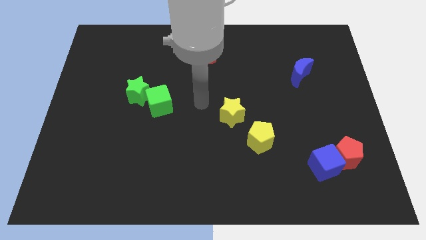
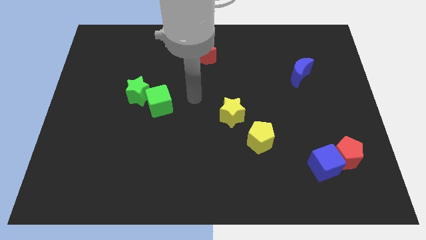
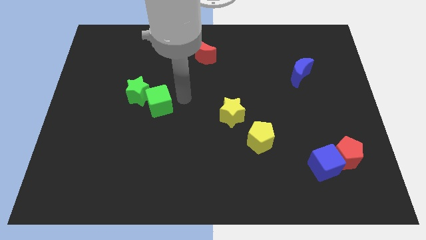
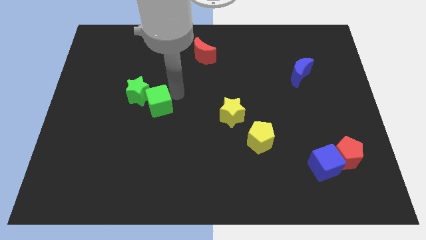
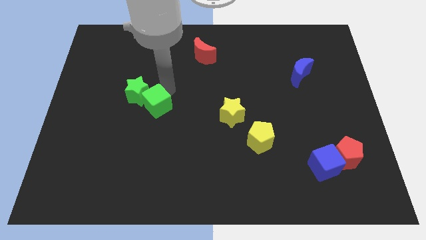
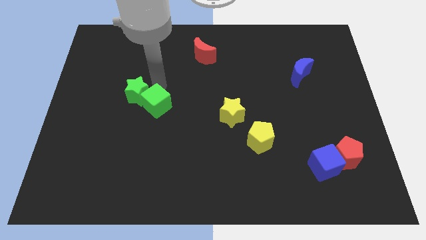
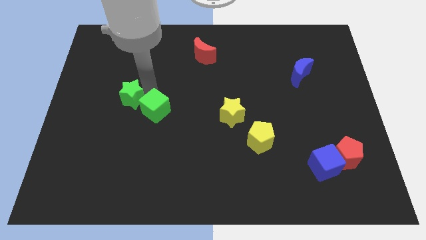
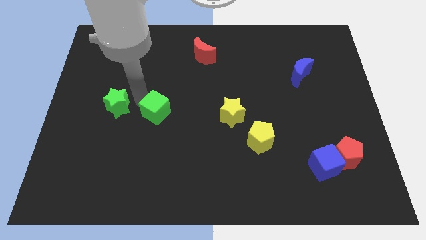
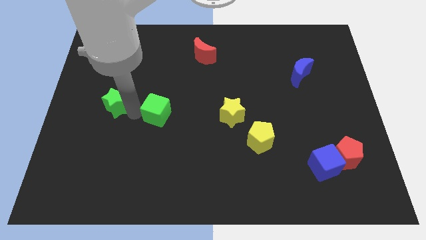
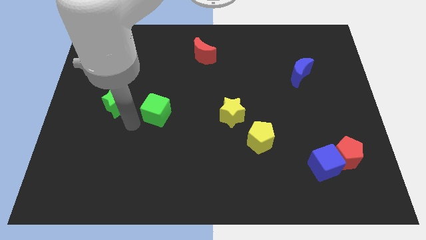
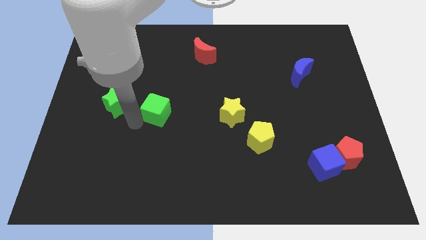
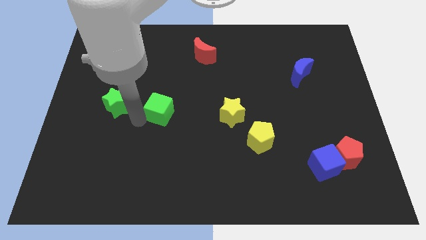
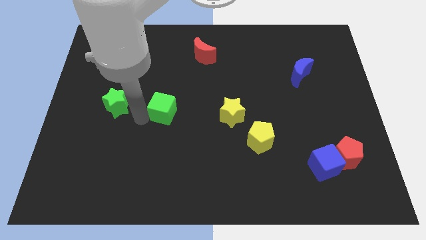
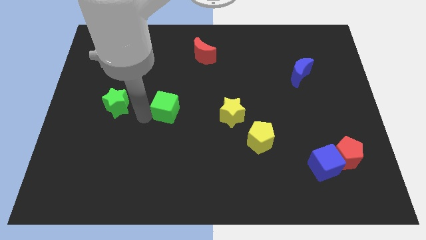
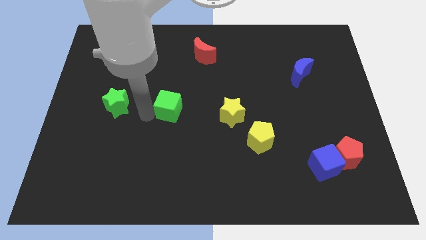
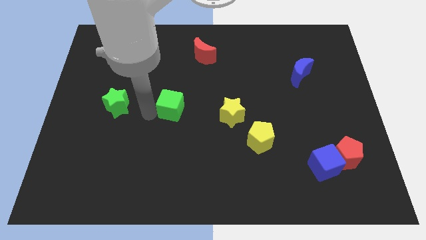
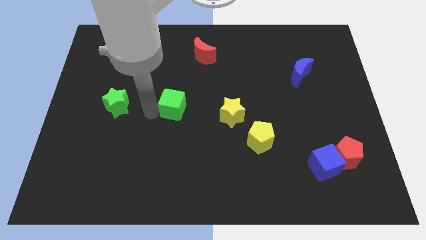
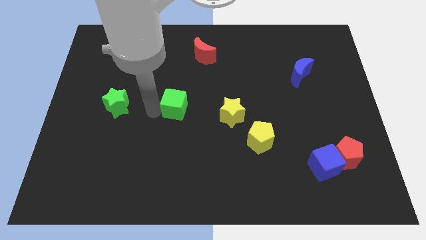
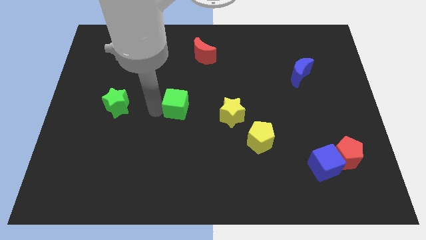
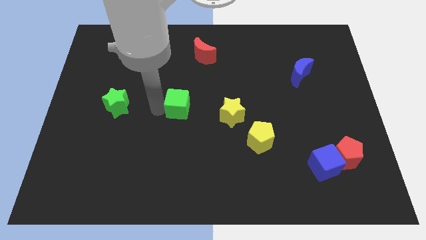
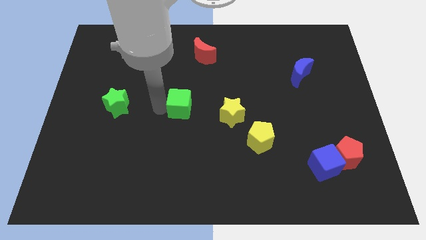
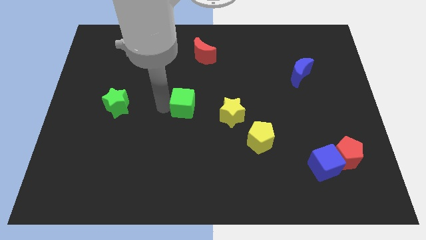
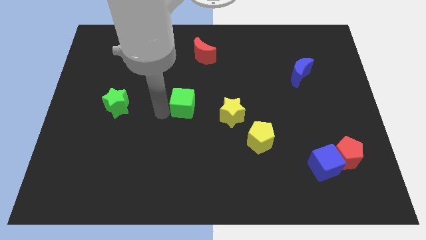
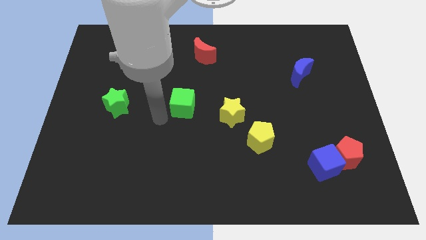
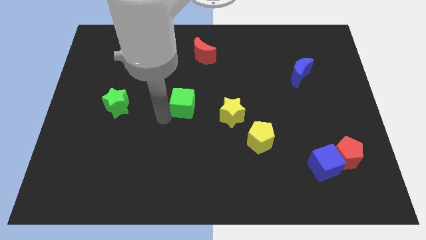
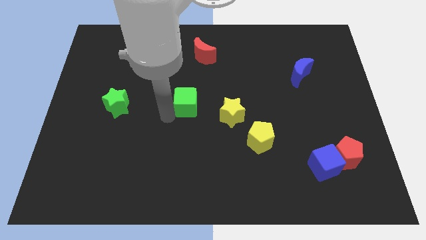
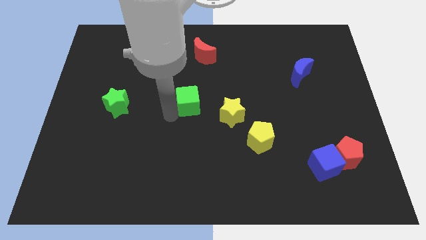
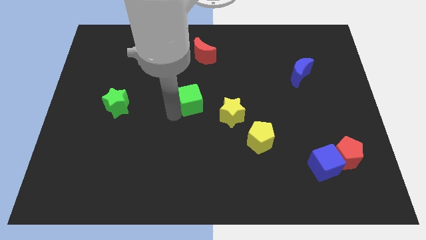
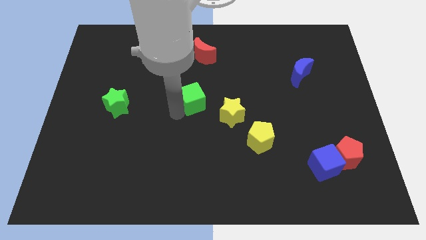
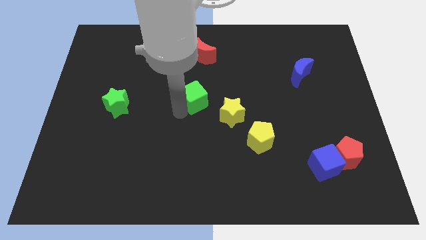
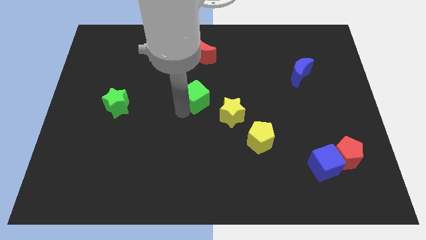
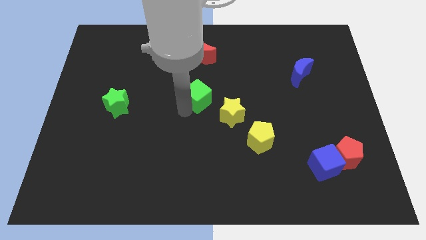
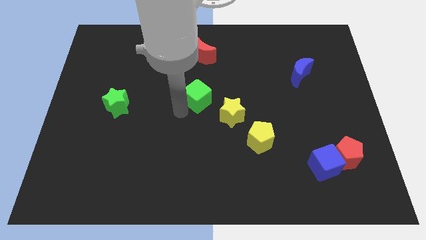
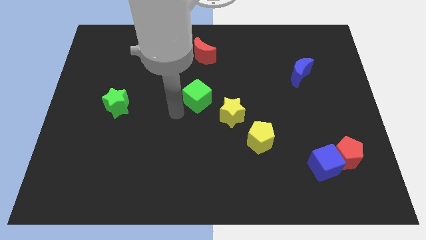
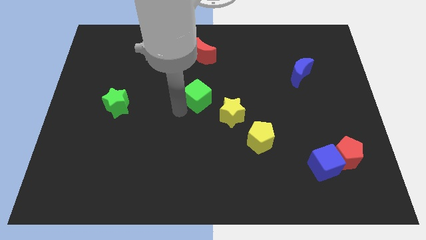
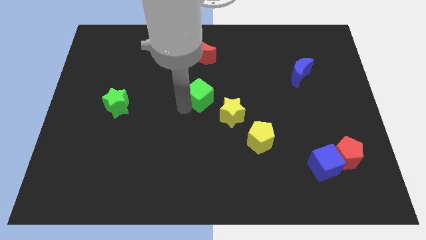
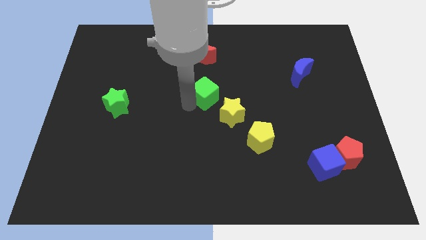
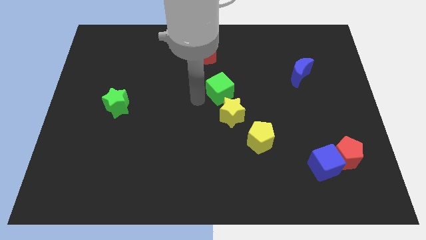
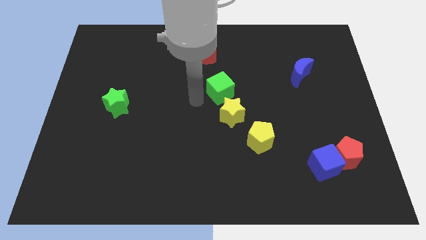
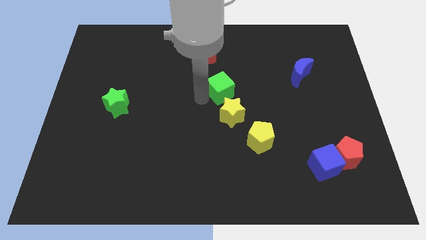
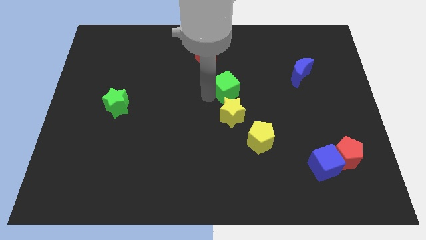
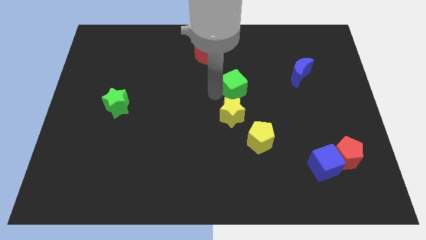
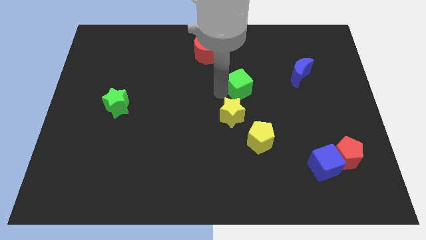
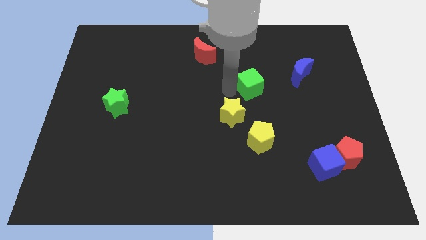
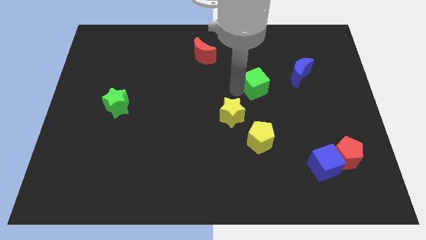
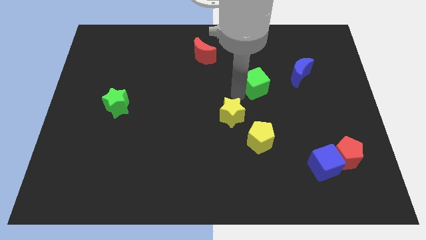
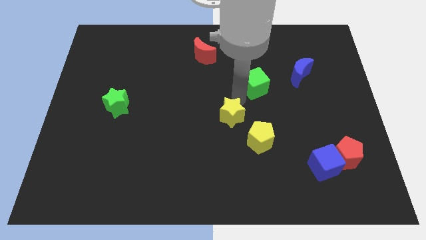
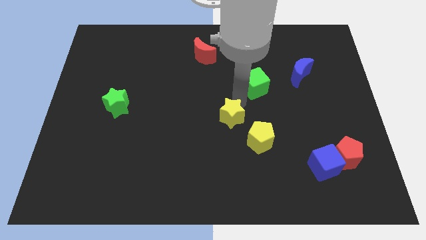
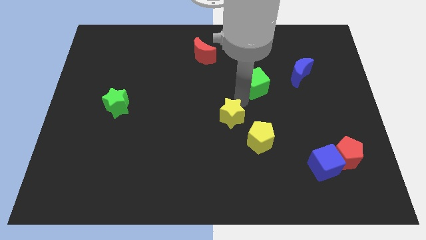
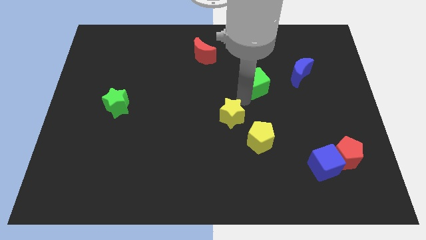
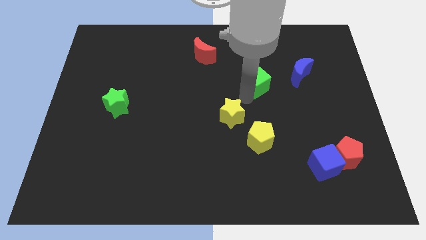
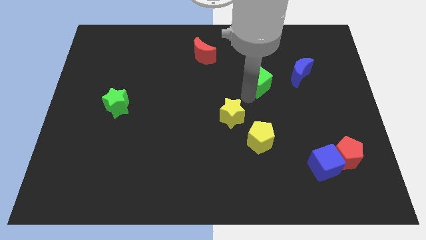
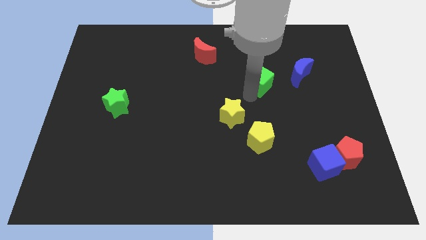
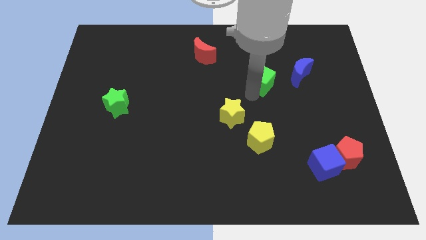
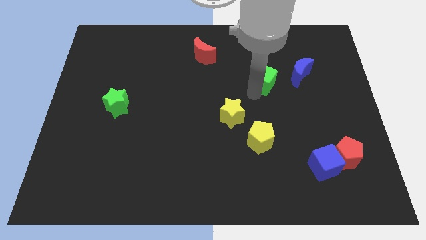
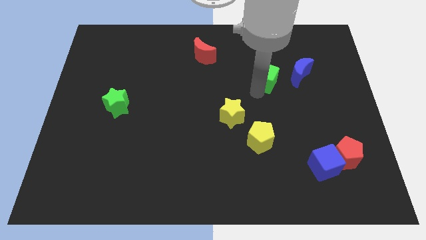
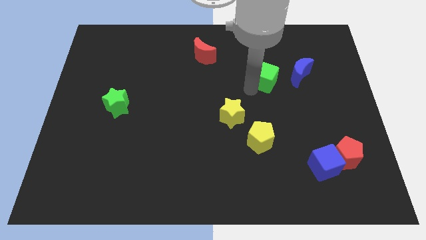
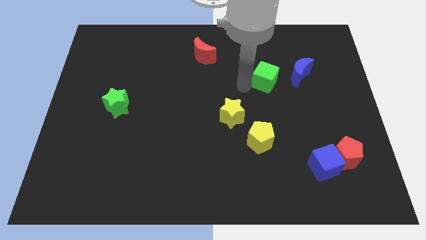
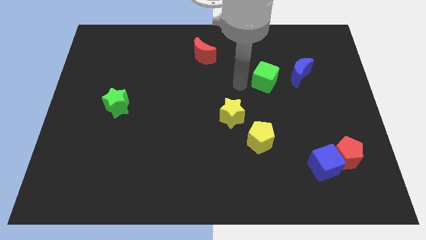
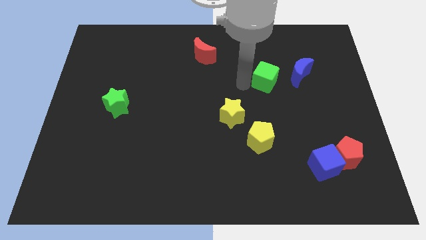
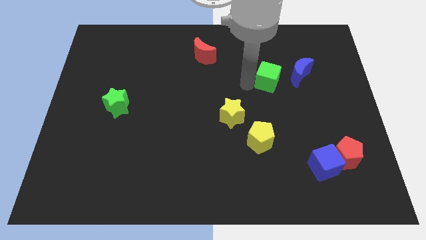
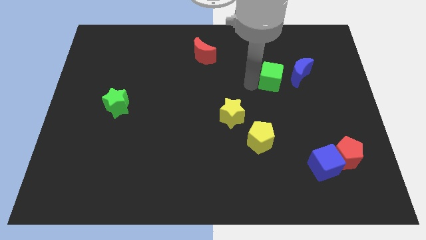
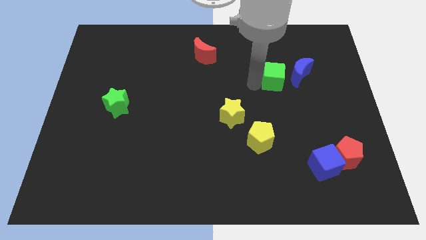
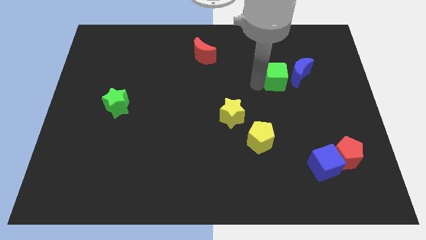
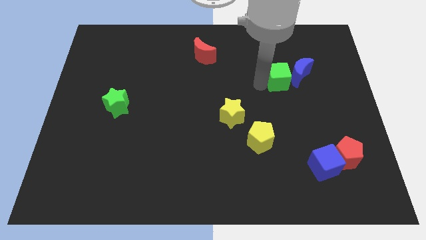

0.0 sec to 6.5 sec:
slide the green cube towards the blue moon

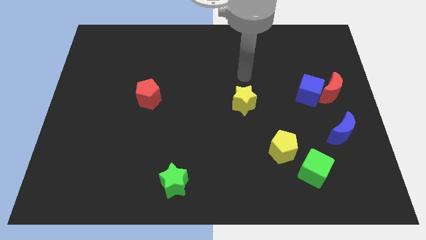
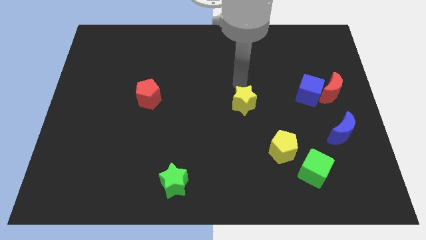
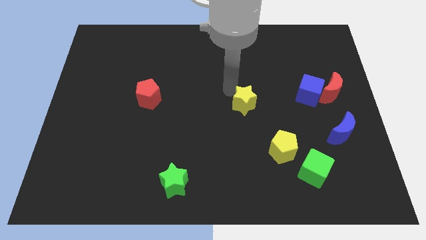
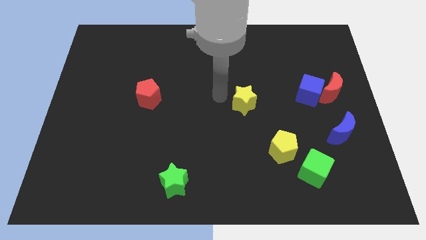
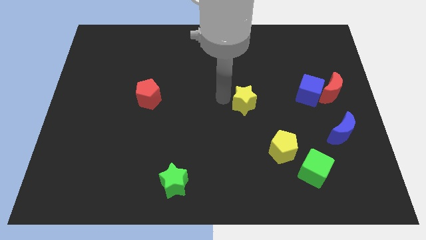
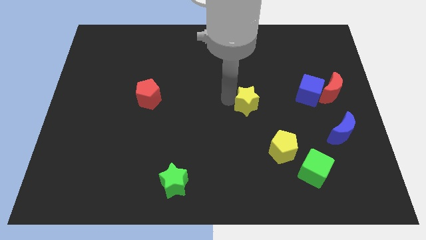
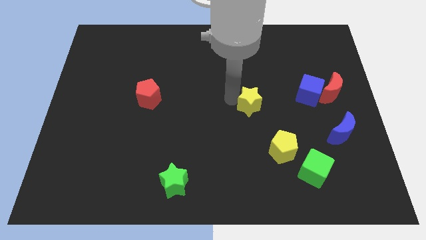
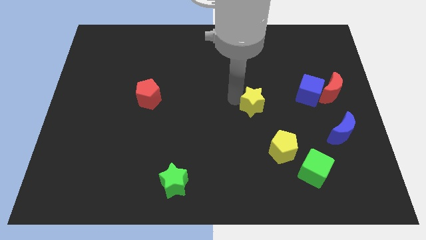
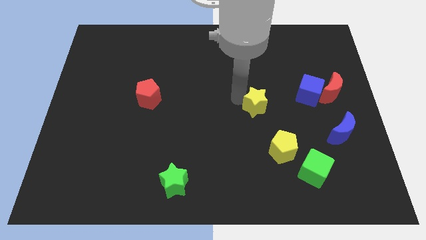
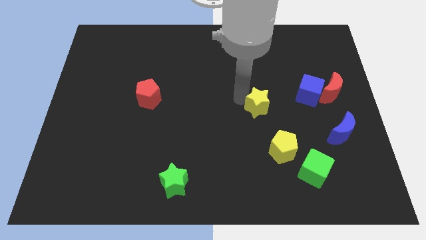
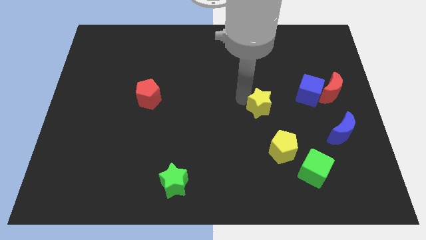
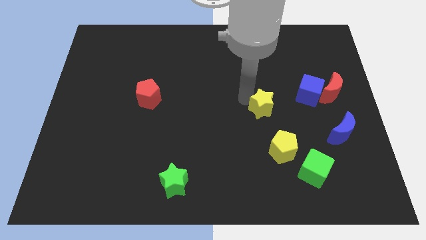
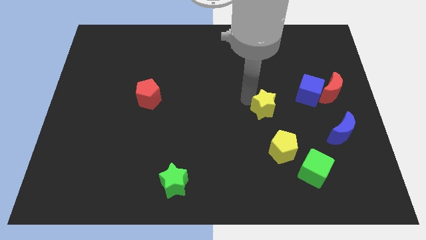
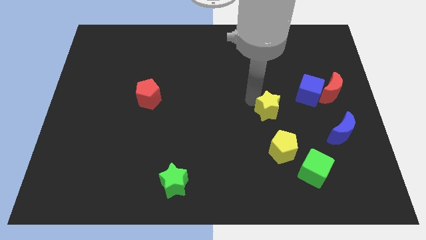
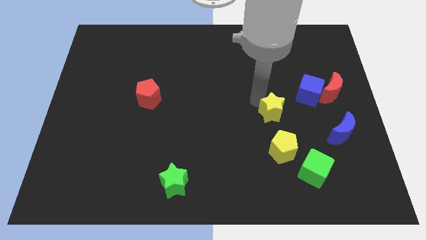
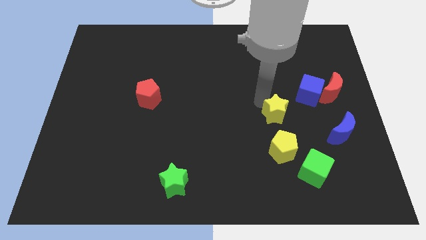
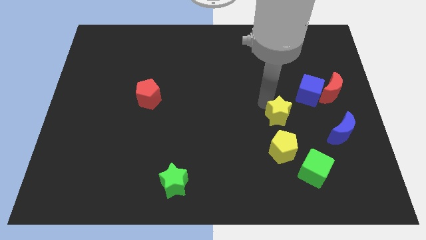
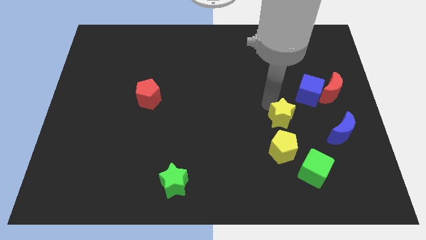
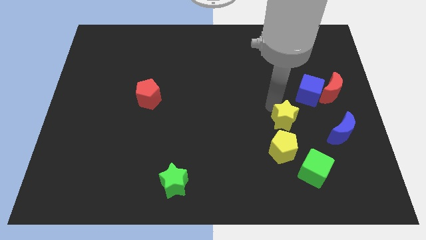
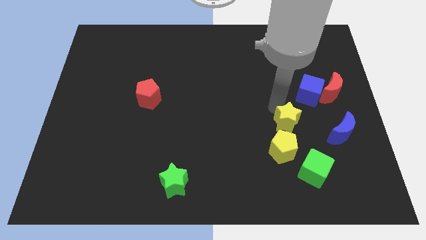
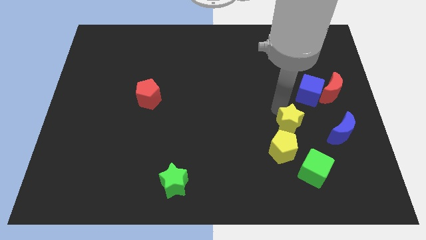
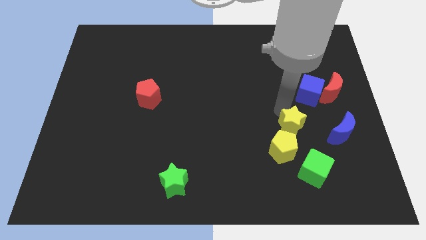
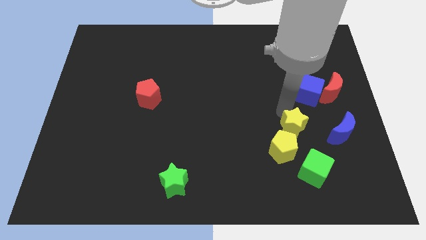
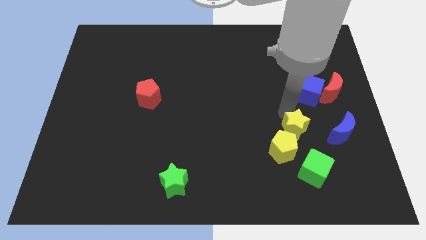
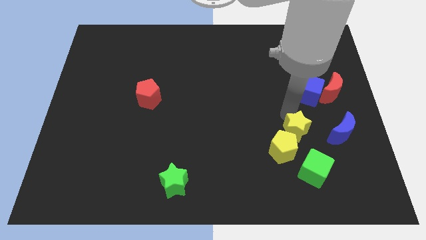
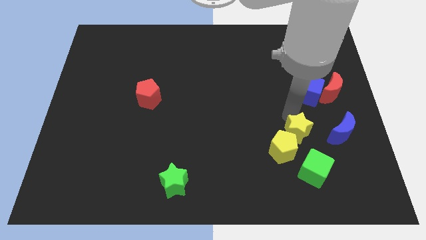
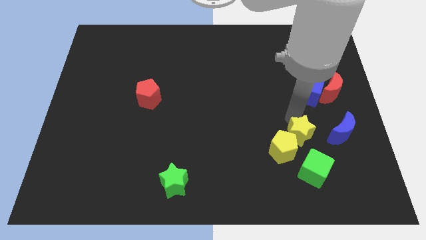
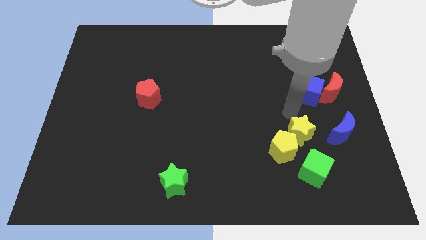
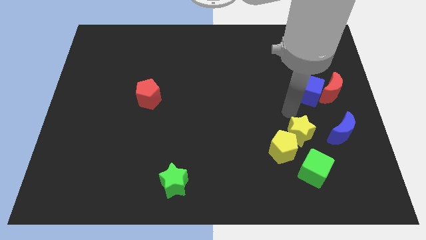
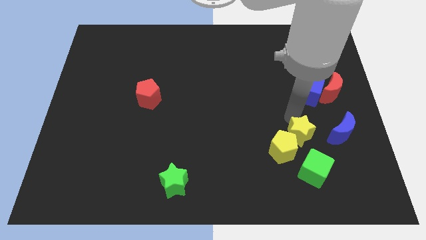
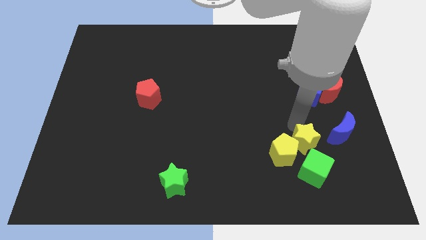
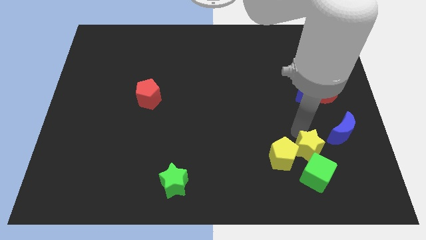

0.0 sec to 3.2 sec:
move the yellow star towards the green cube
